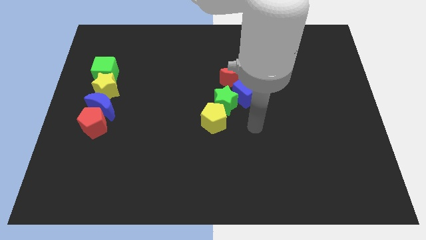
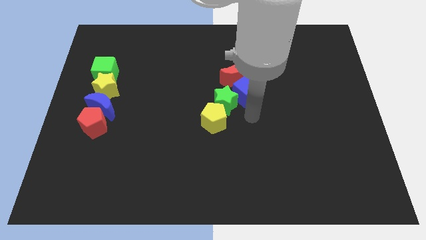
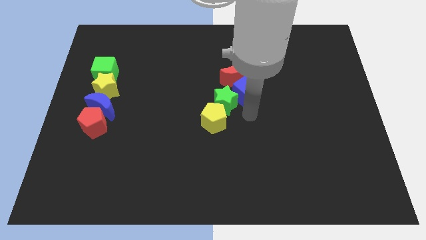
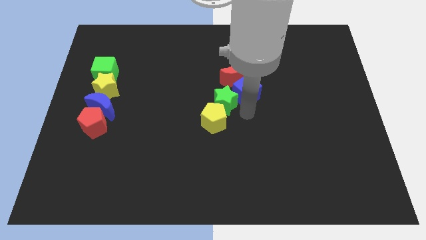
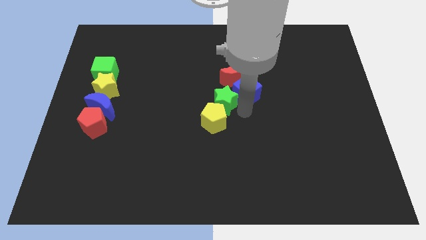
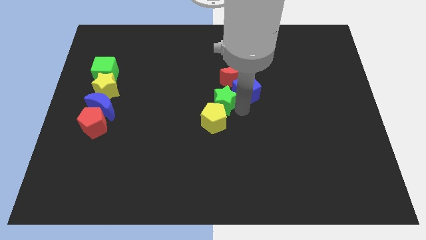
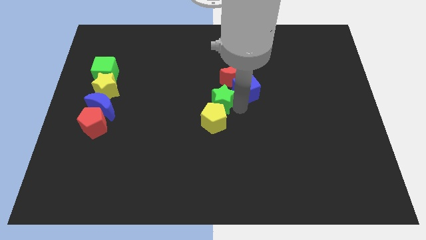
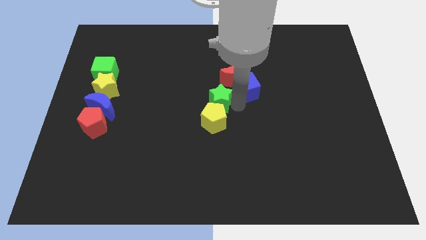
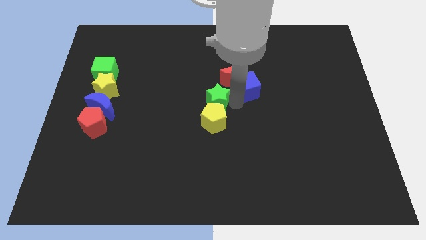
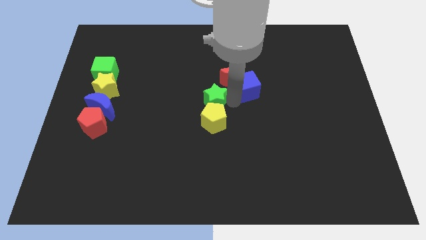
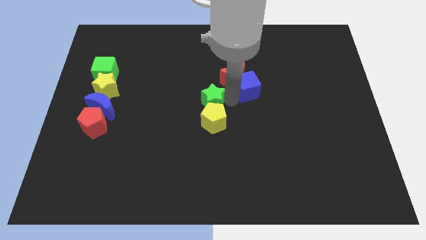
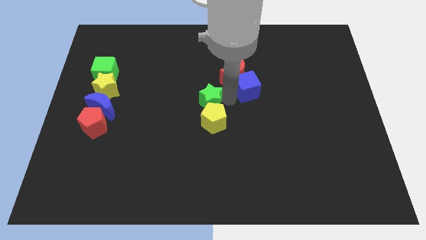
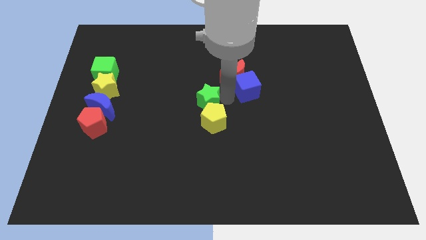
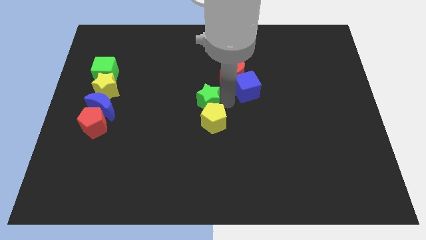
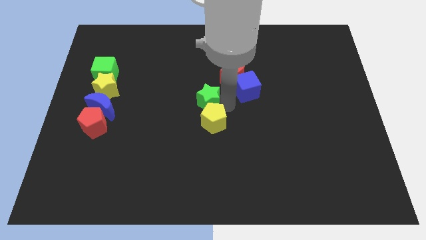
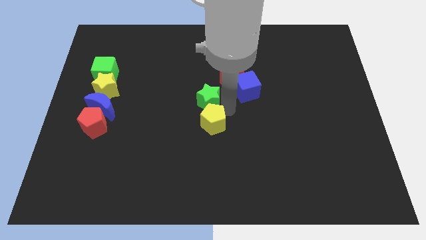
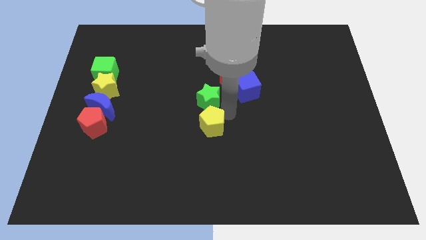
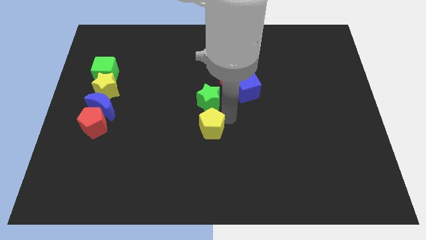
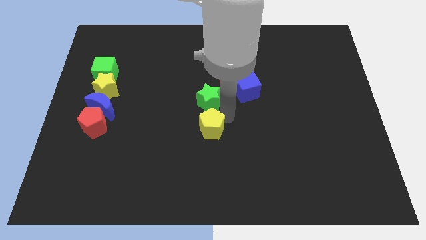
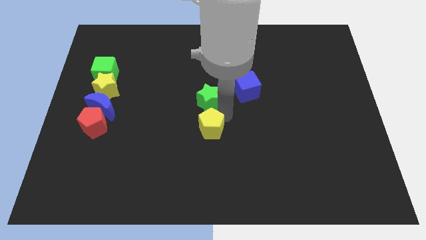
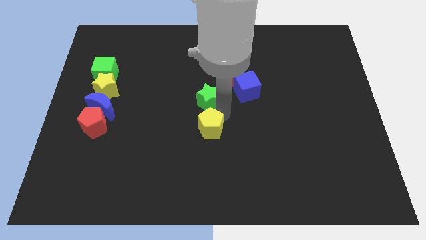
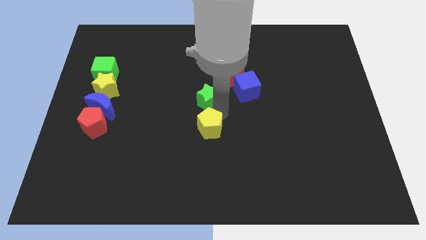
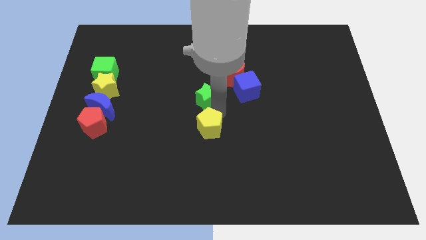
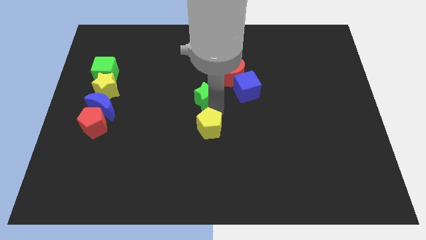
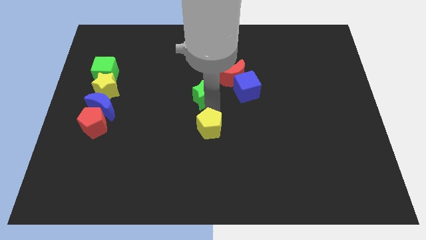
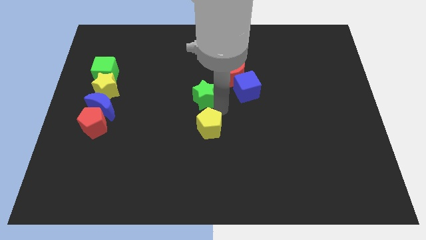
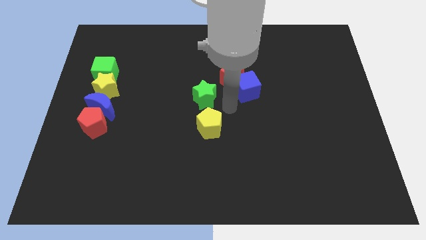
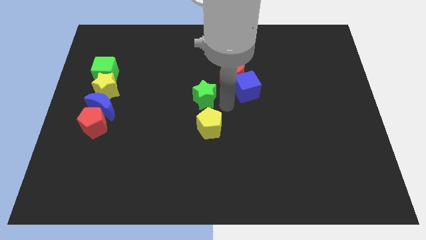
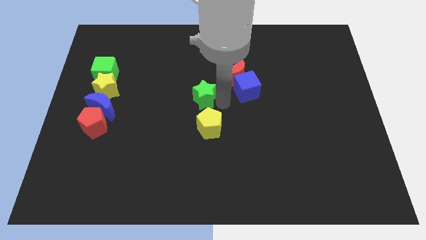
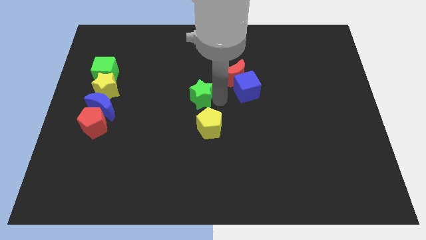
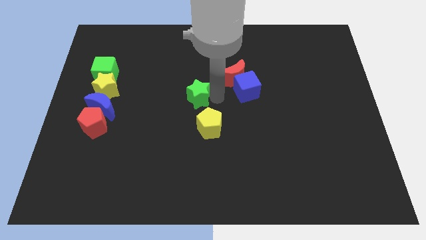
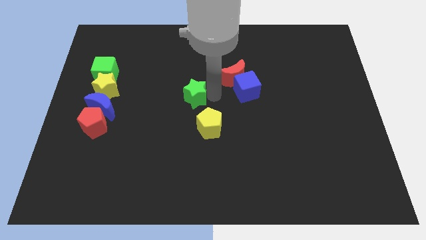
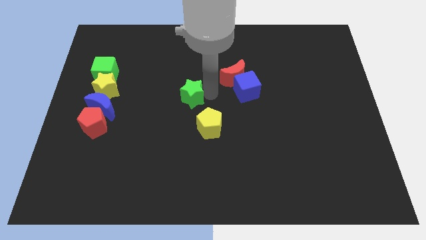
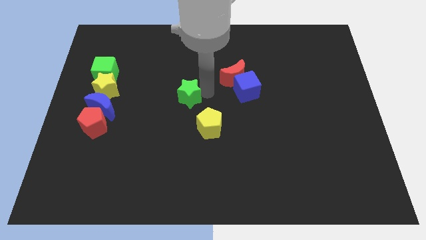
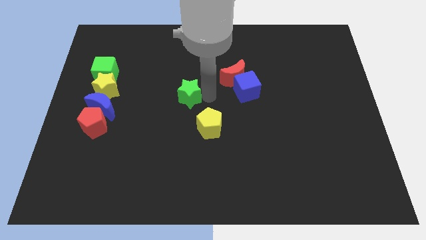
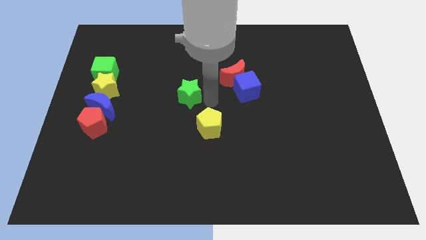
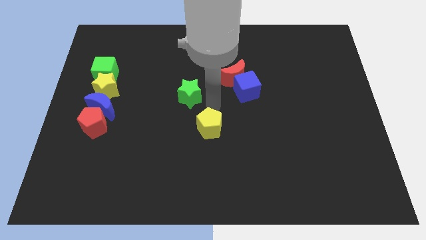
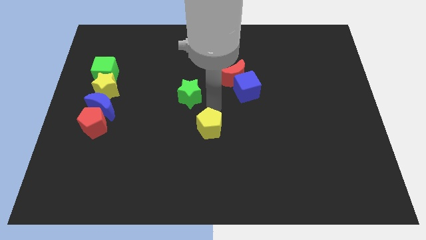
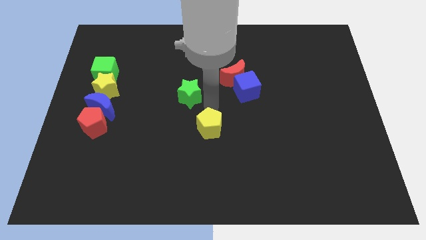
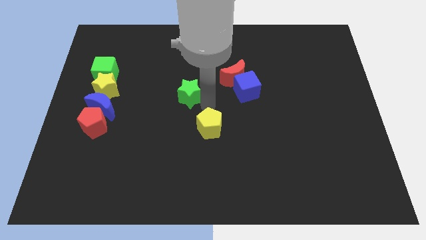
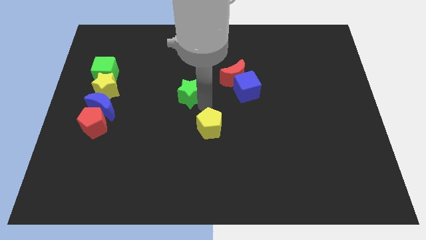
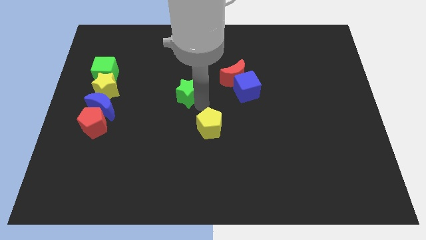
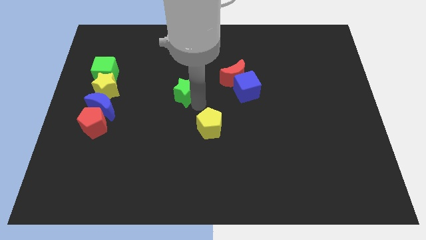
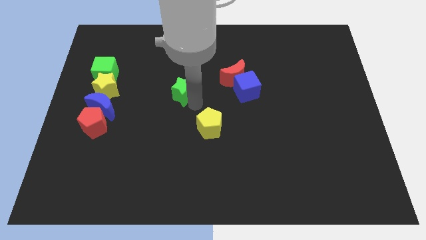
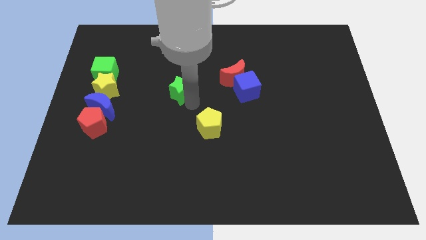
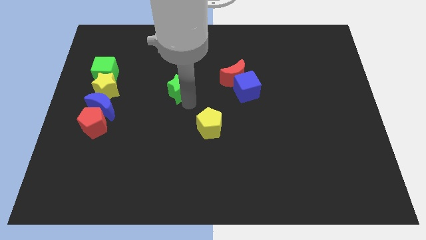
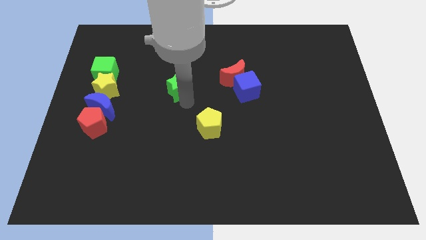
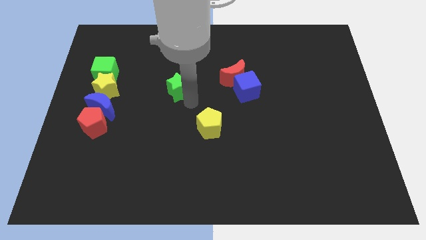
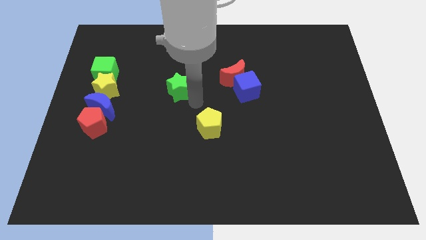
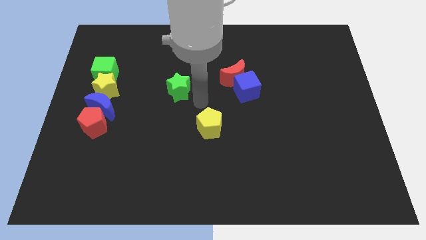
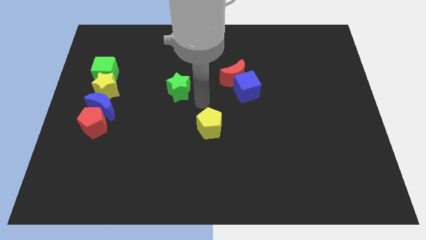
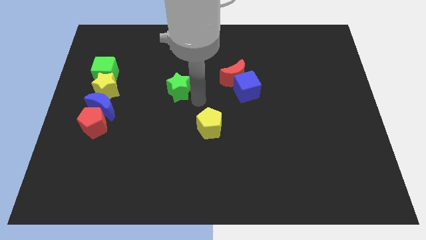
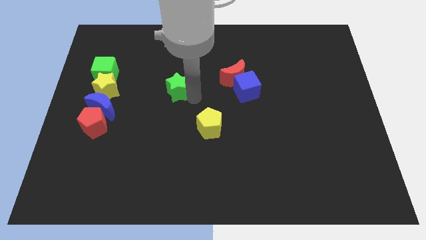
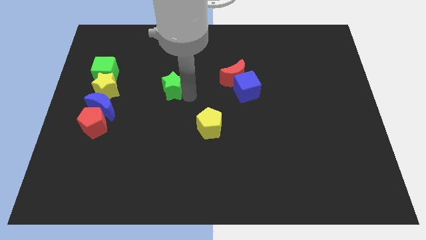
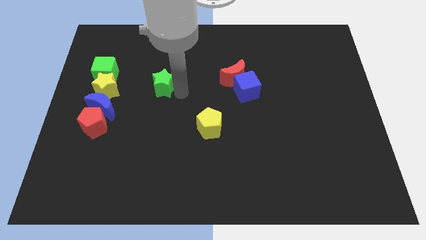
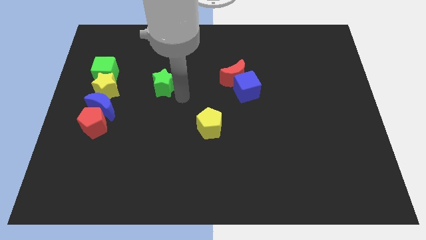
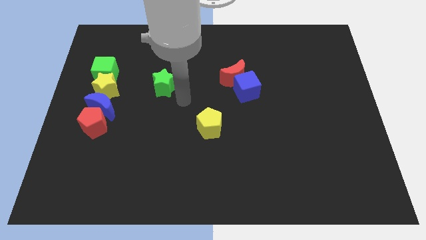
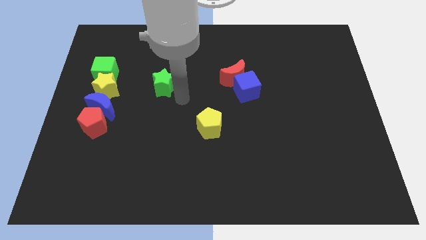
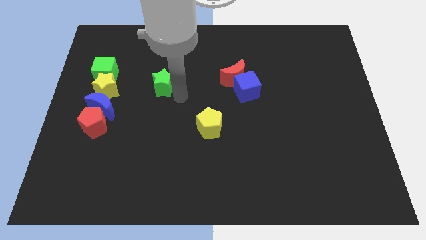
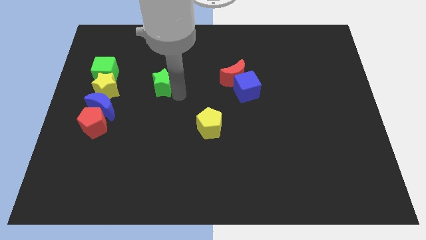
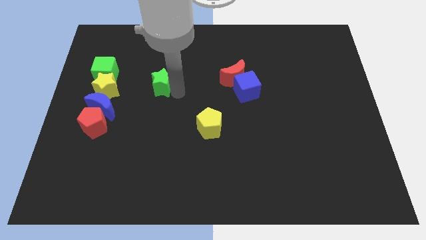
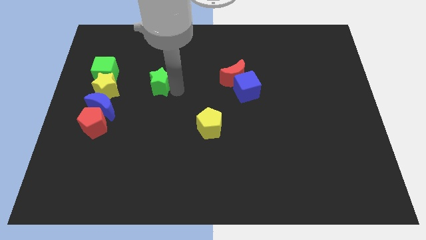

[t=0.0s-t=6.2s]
put the green star to the right of the green cube
